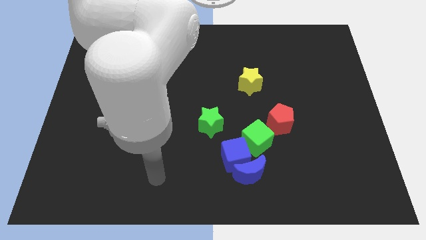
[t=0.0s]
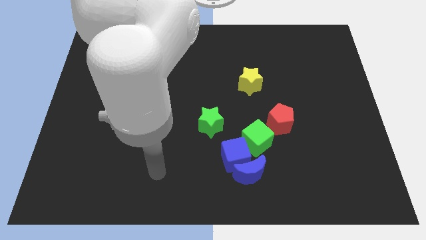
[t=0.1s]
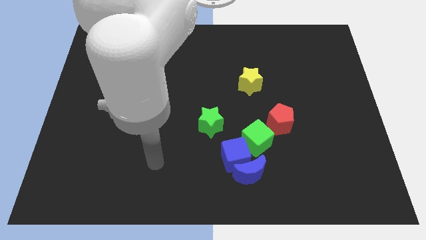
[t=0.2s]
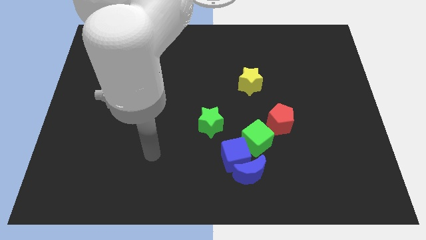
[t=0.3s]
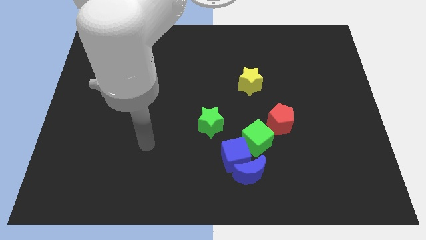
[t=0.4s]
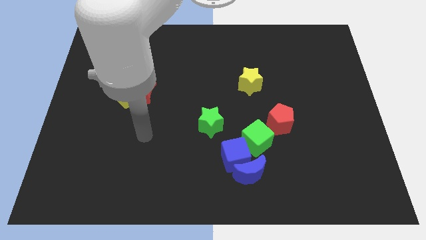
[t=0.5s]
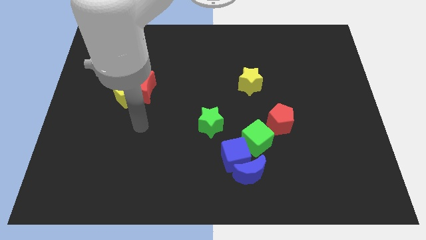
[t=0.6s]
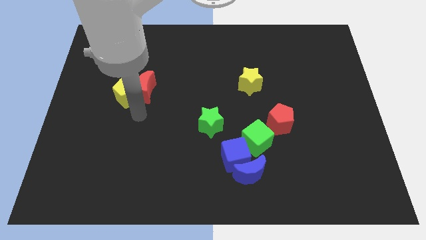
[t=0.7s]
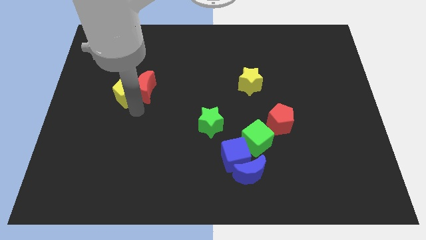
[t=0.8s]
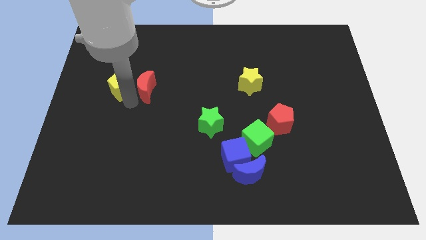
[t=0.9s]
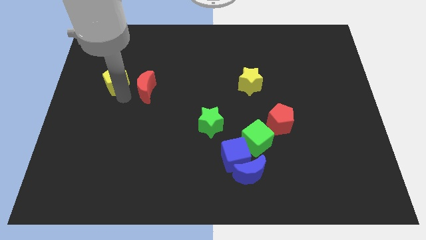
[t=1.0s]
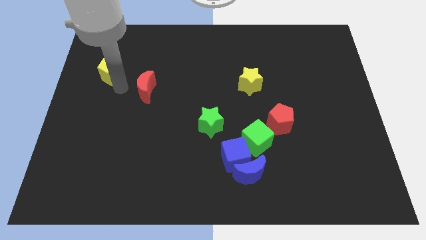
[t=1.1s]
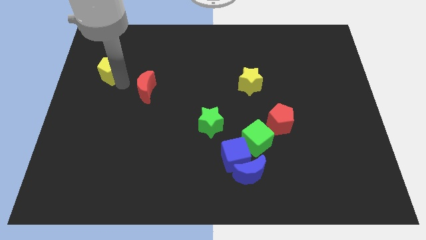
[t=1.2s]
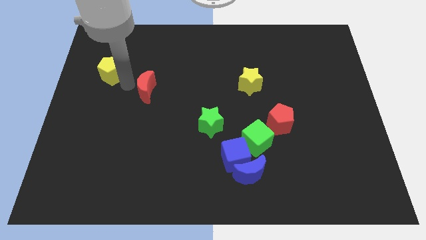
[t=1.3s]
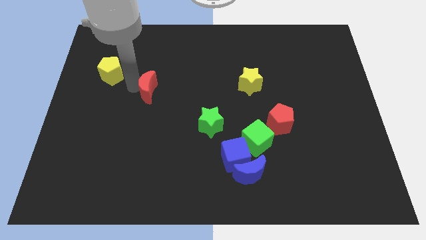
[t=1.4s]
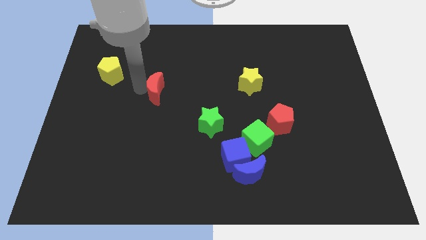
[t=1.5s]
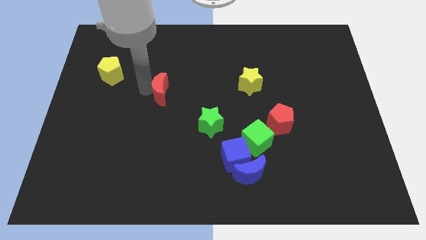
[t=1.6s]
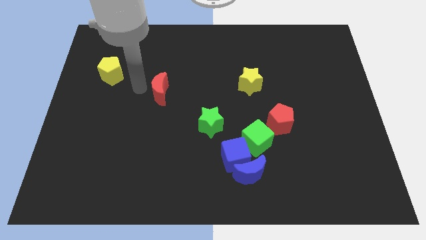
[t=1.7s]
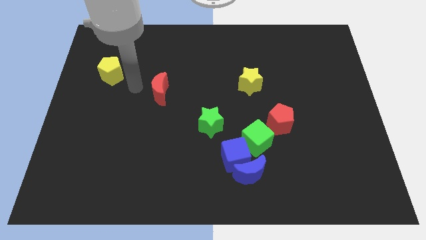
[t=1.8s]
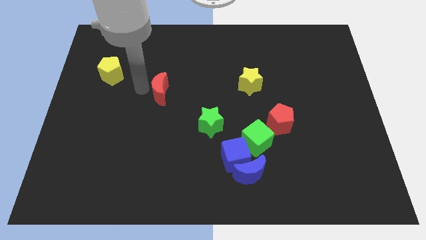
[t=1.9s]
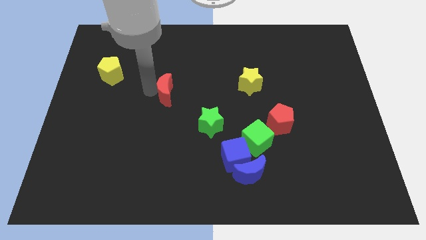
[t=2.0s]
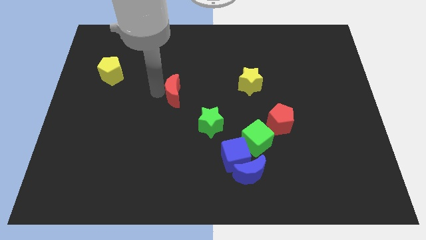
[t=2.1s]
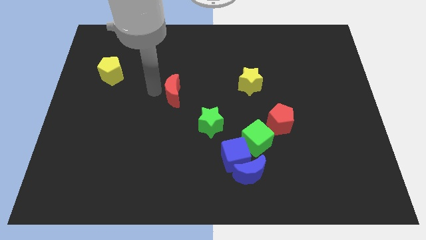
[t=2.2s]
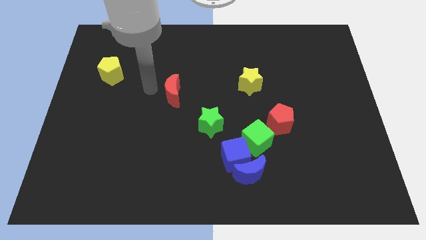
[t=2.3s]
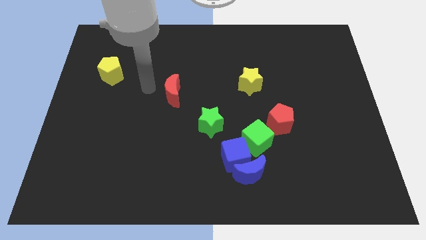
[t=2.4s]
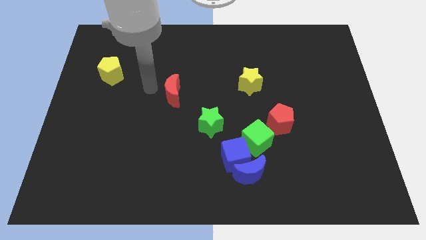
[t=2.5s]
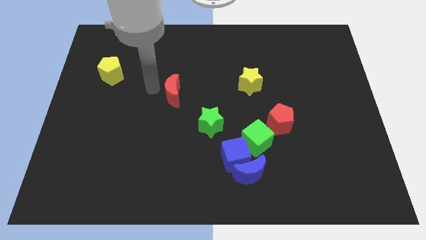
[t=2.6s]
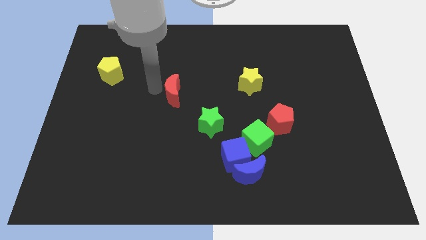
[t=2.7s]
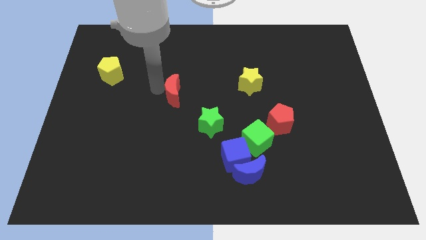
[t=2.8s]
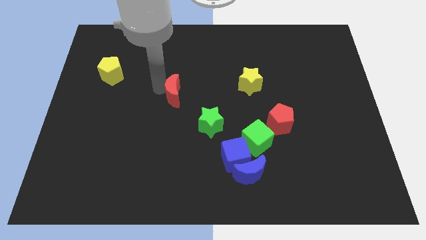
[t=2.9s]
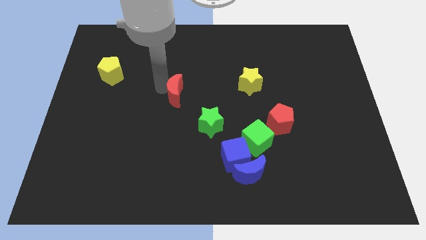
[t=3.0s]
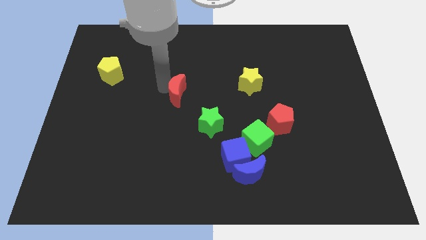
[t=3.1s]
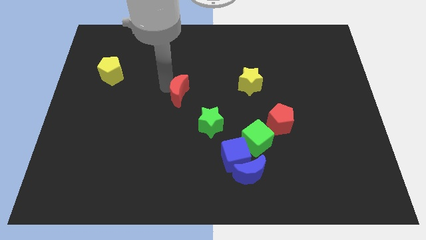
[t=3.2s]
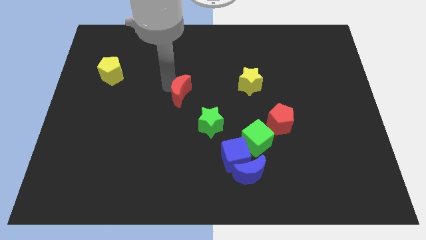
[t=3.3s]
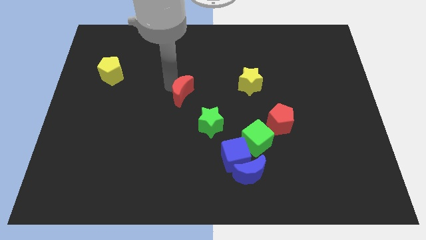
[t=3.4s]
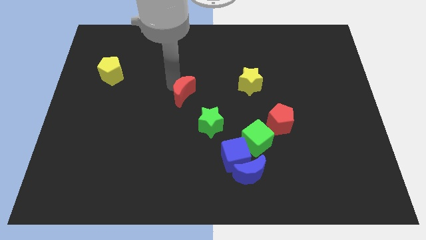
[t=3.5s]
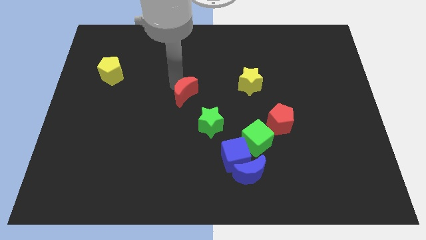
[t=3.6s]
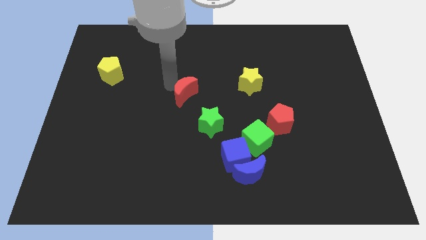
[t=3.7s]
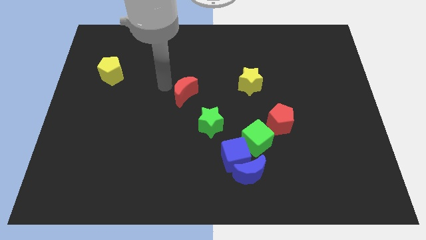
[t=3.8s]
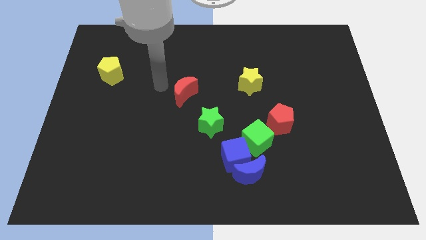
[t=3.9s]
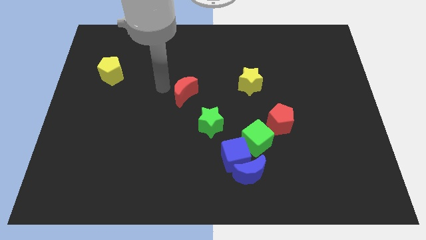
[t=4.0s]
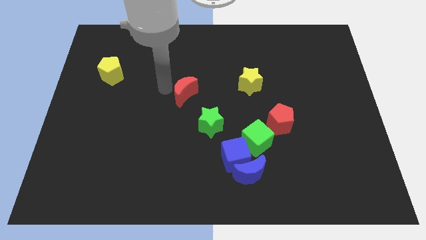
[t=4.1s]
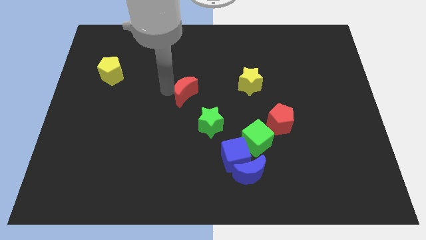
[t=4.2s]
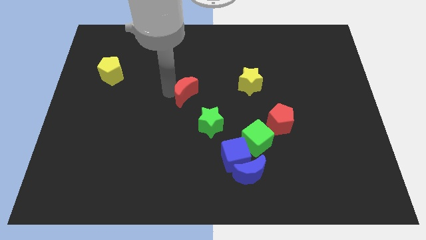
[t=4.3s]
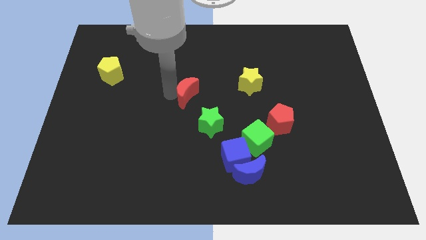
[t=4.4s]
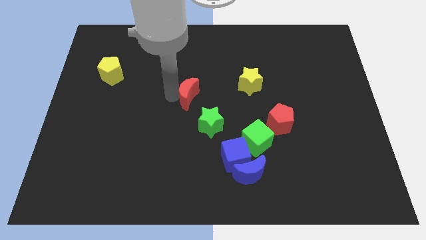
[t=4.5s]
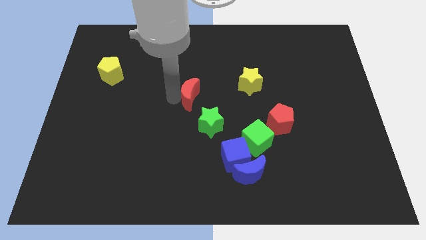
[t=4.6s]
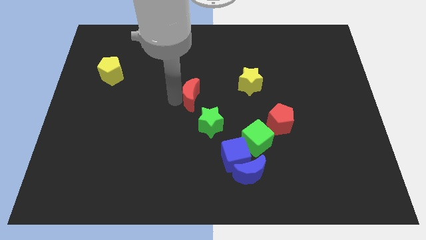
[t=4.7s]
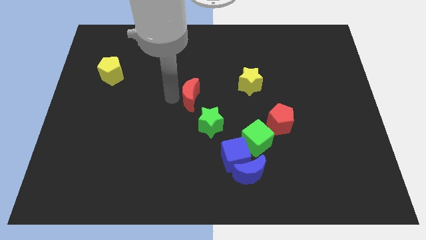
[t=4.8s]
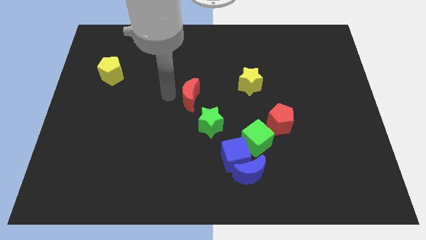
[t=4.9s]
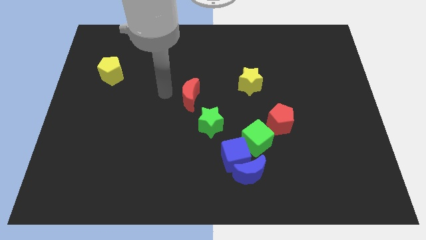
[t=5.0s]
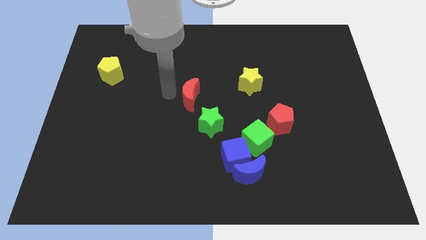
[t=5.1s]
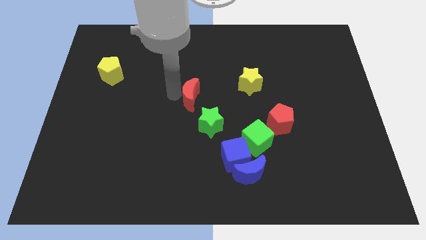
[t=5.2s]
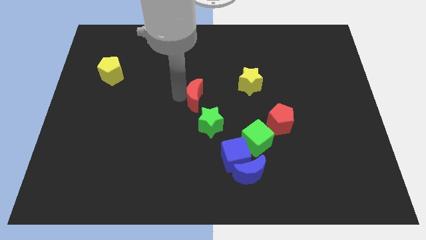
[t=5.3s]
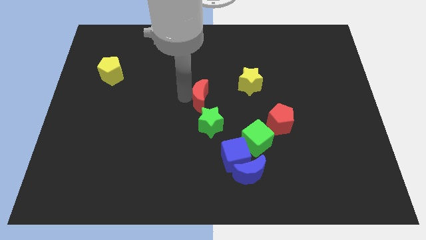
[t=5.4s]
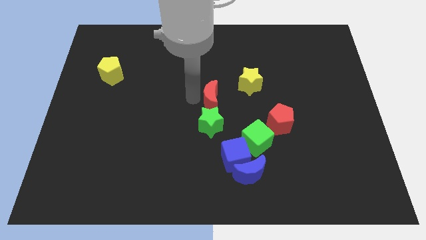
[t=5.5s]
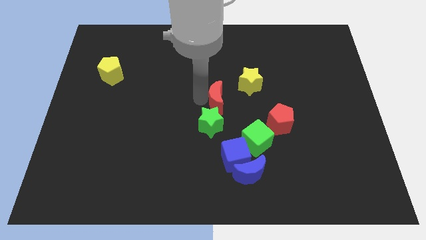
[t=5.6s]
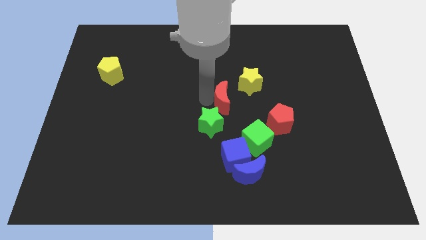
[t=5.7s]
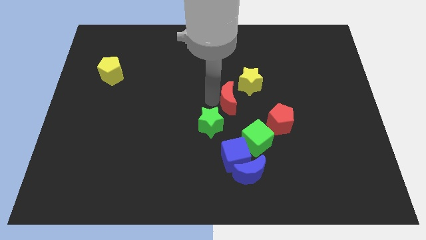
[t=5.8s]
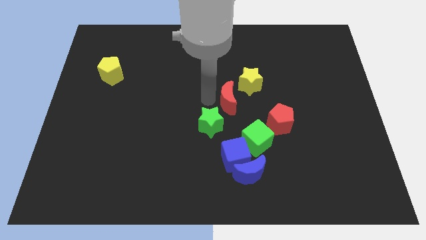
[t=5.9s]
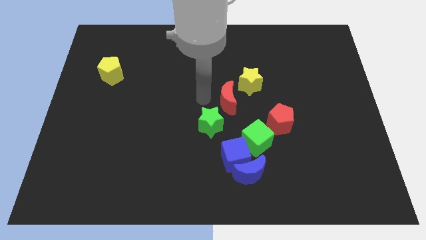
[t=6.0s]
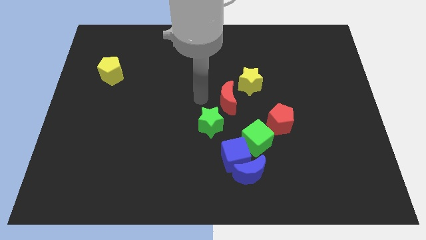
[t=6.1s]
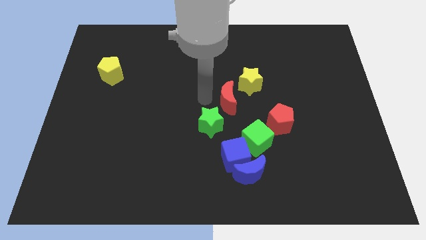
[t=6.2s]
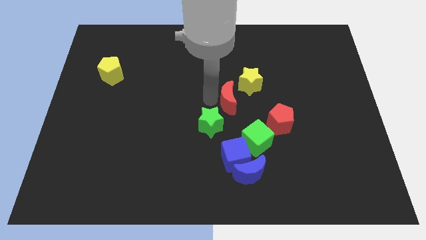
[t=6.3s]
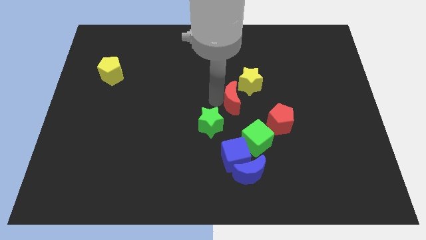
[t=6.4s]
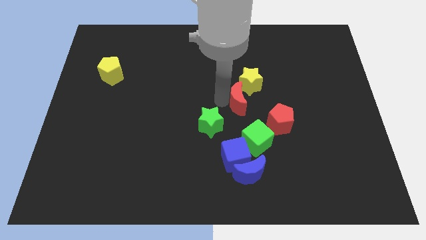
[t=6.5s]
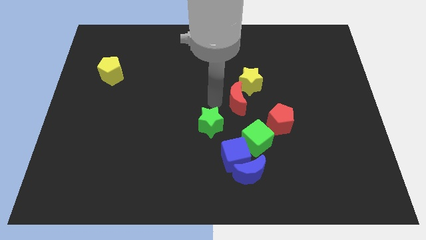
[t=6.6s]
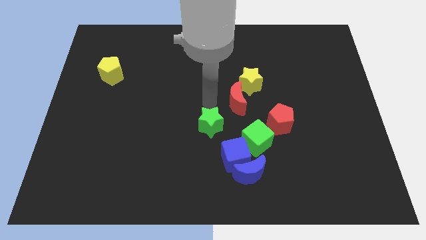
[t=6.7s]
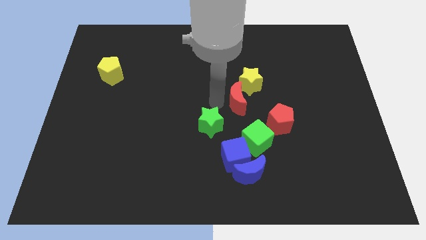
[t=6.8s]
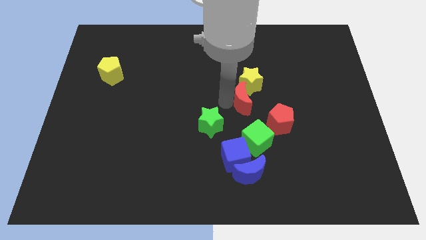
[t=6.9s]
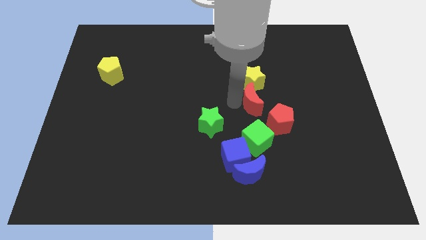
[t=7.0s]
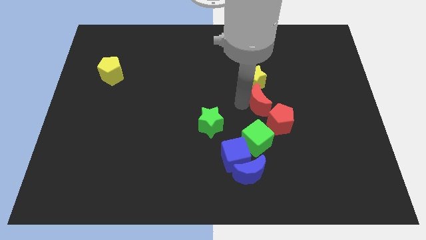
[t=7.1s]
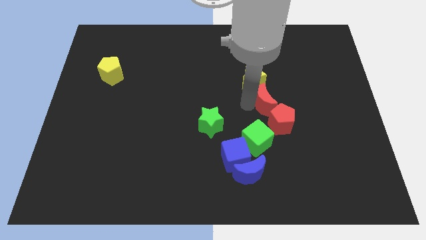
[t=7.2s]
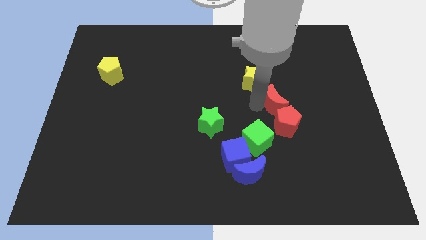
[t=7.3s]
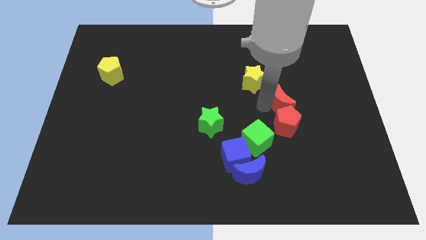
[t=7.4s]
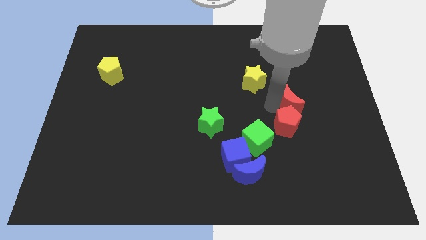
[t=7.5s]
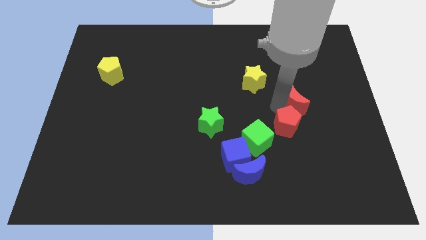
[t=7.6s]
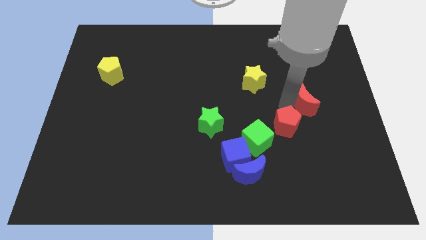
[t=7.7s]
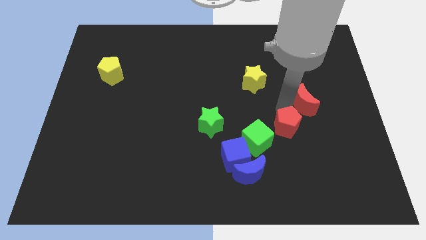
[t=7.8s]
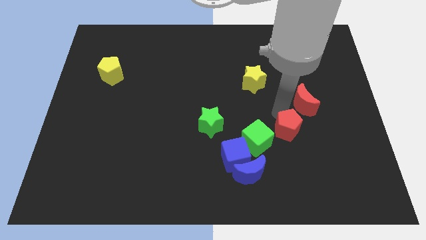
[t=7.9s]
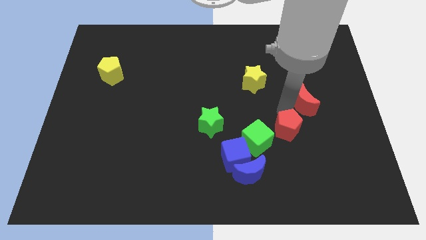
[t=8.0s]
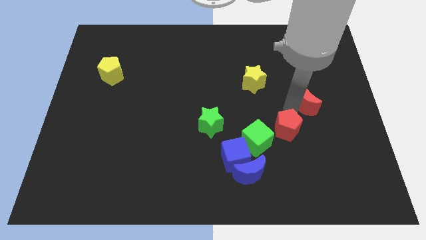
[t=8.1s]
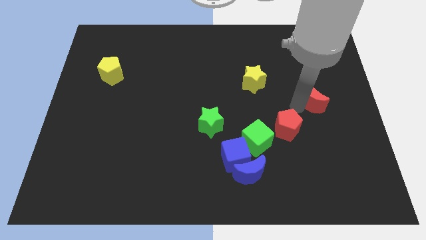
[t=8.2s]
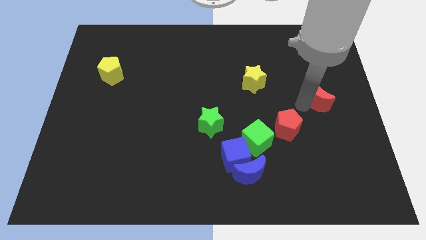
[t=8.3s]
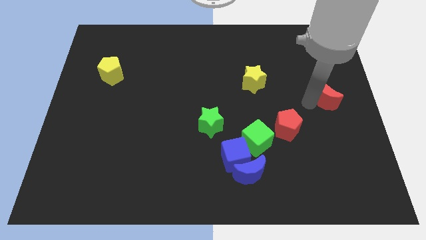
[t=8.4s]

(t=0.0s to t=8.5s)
push the red moon to the right side of the board
